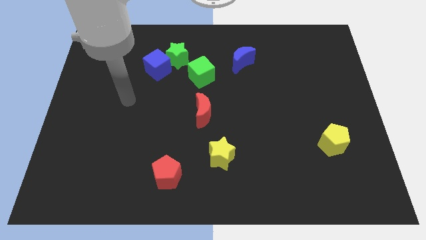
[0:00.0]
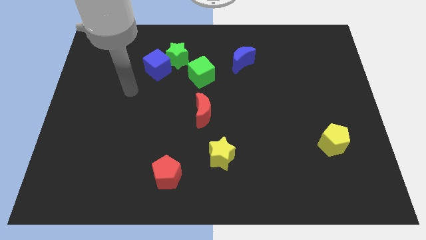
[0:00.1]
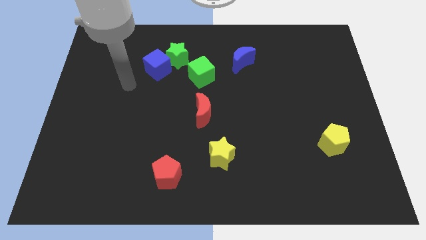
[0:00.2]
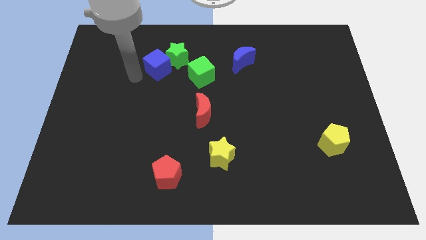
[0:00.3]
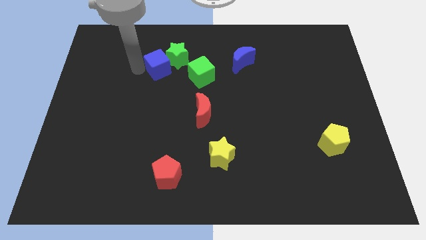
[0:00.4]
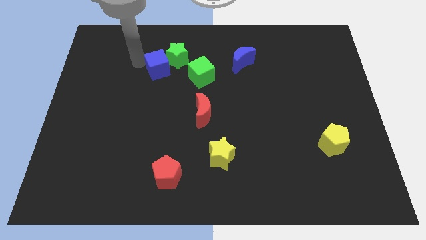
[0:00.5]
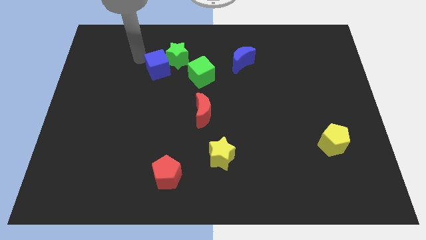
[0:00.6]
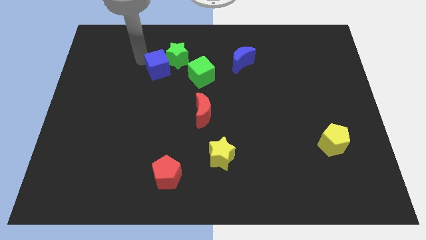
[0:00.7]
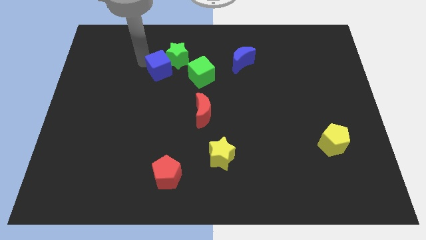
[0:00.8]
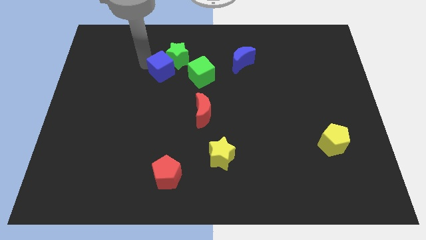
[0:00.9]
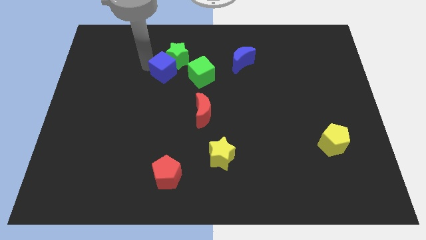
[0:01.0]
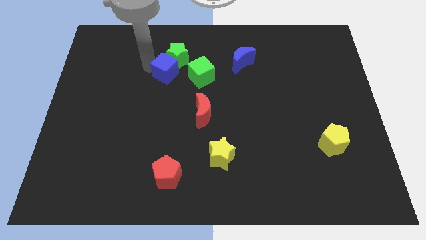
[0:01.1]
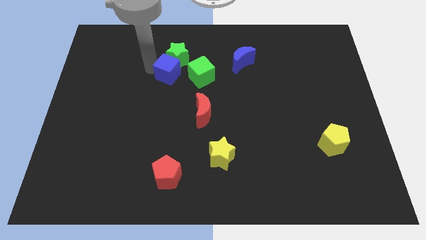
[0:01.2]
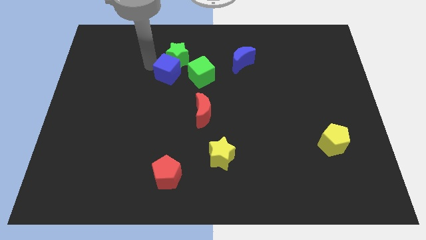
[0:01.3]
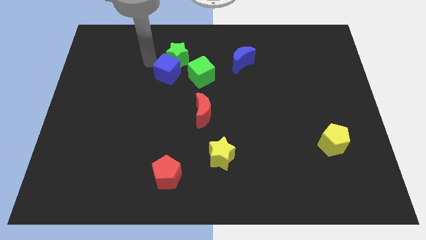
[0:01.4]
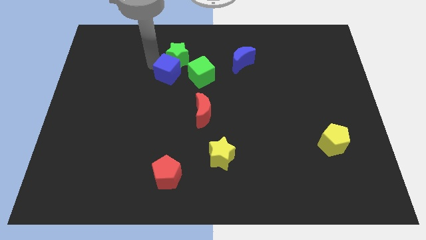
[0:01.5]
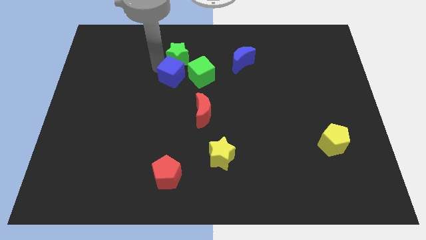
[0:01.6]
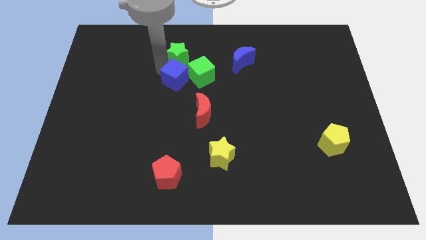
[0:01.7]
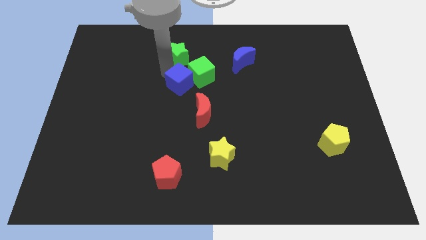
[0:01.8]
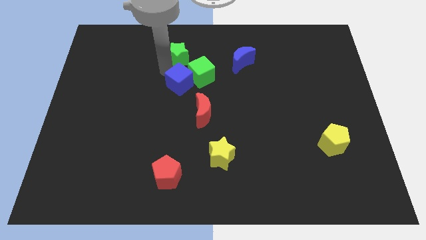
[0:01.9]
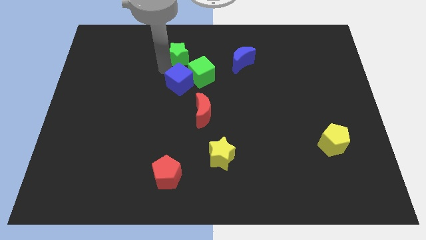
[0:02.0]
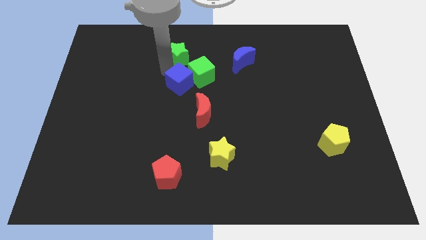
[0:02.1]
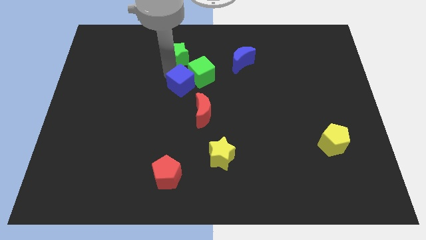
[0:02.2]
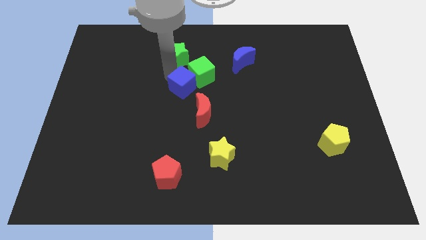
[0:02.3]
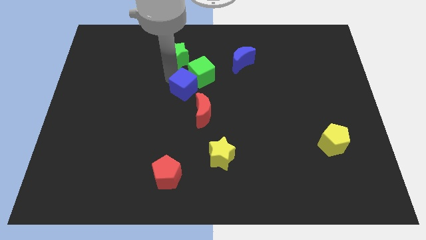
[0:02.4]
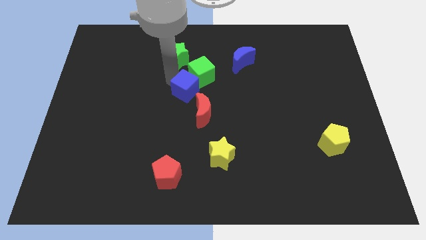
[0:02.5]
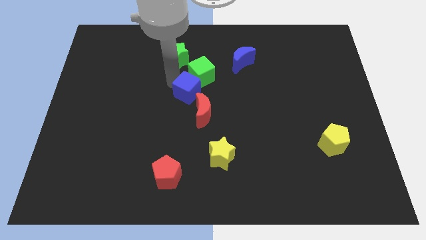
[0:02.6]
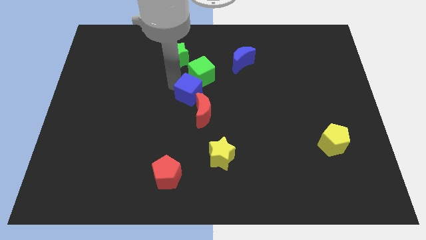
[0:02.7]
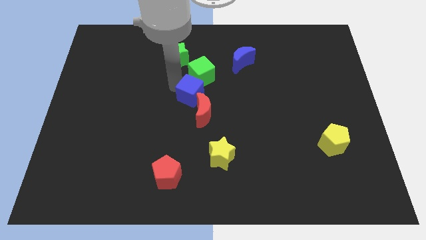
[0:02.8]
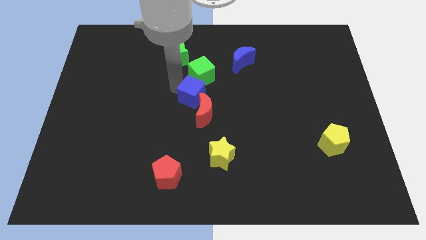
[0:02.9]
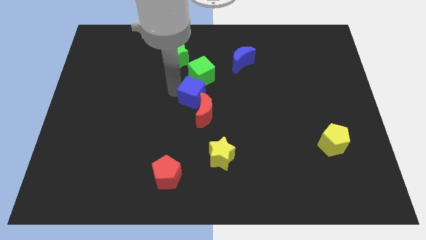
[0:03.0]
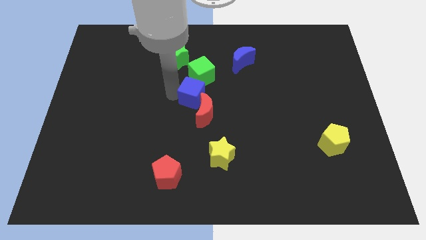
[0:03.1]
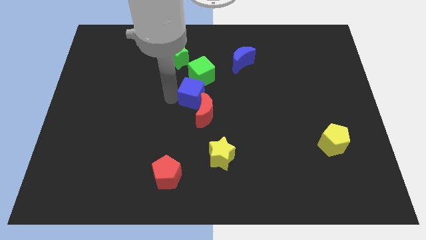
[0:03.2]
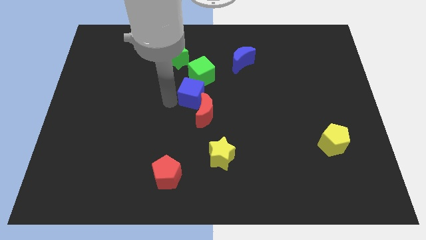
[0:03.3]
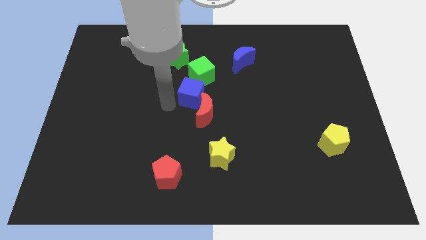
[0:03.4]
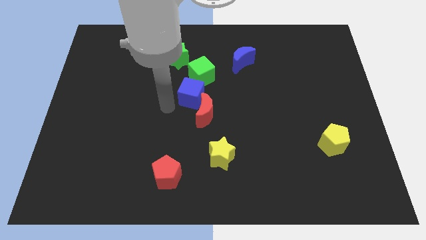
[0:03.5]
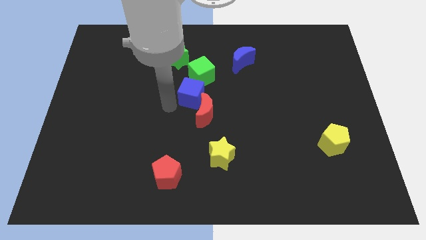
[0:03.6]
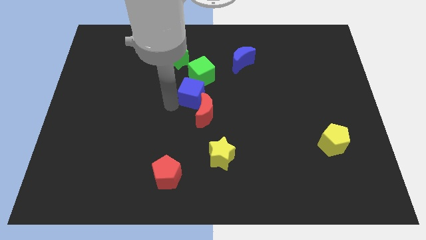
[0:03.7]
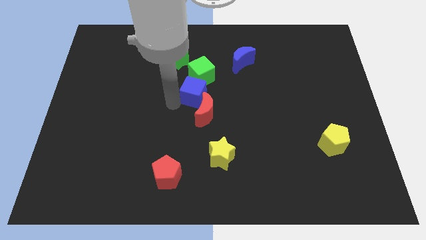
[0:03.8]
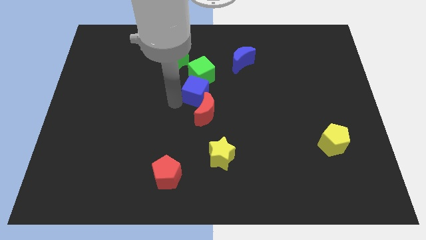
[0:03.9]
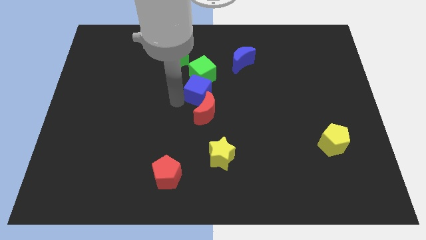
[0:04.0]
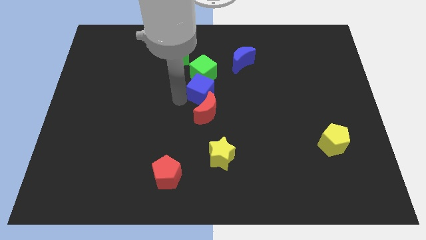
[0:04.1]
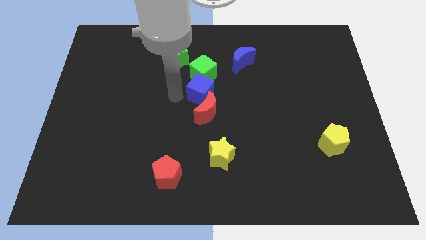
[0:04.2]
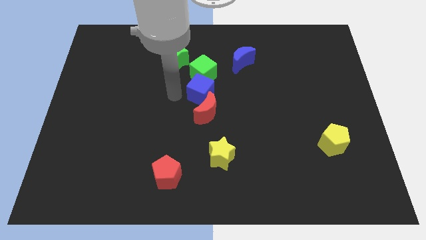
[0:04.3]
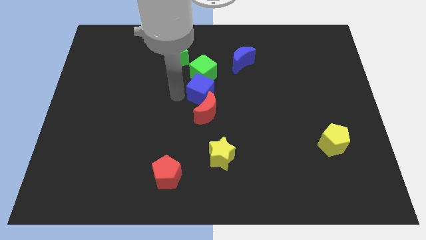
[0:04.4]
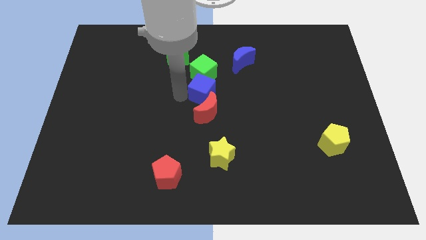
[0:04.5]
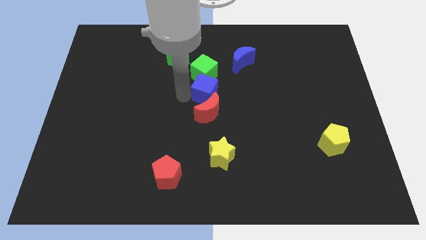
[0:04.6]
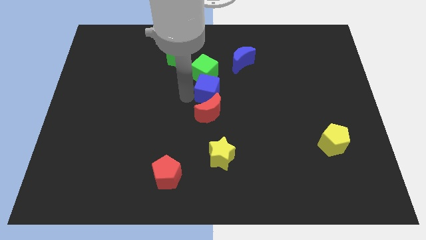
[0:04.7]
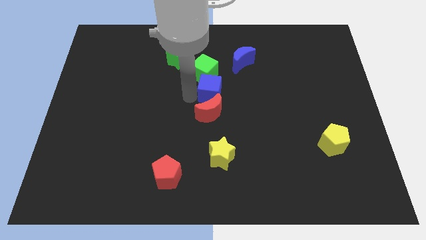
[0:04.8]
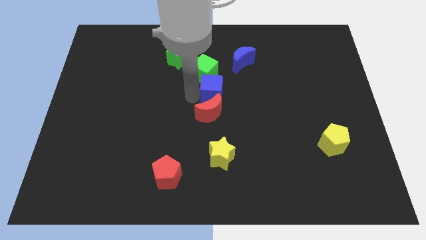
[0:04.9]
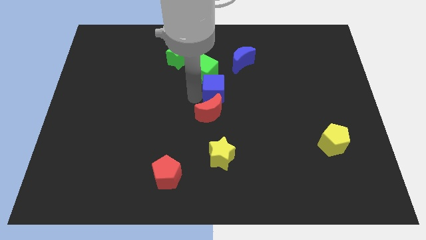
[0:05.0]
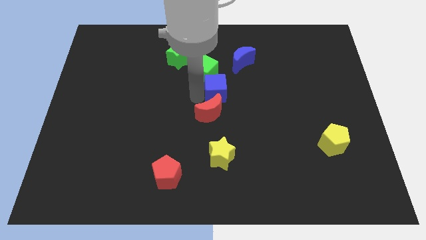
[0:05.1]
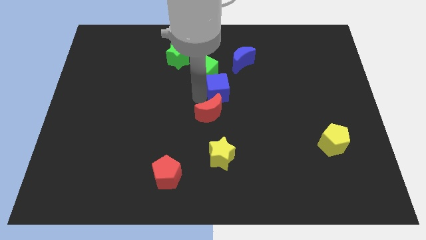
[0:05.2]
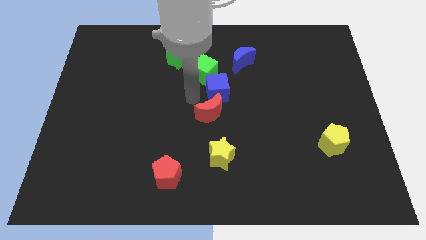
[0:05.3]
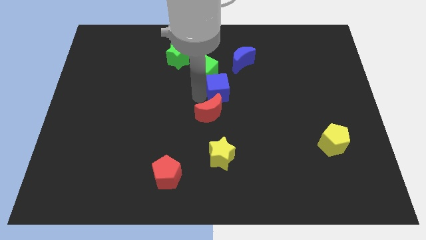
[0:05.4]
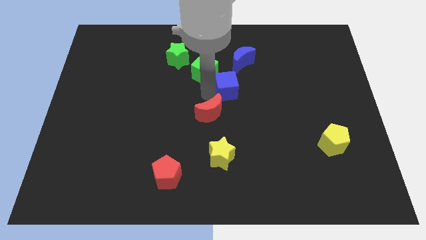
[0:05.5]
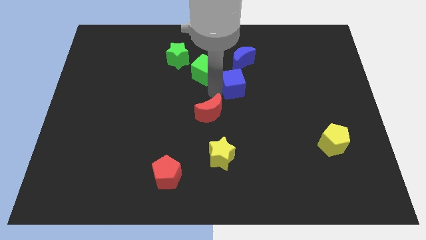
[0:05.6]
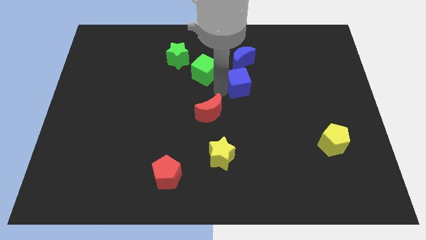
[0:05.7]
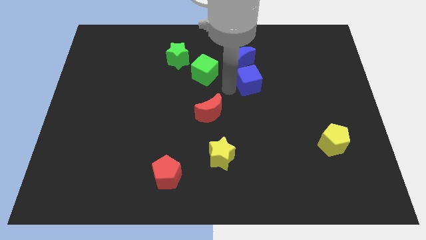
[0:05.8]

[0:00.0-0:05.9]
slide the blue cube to the right

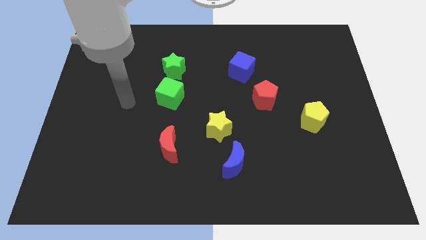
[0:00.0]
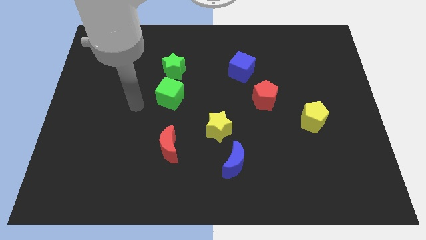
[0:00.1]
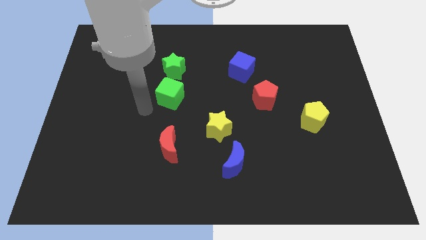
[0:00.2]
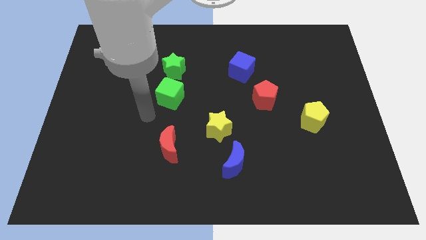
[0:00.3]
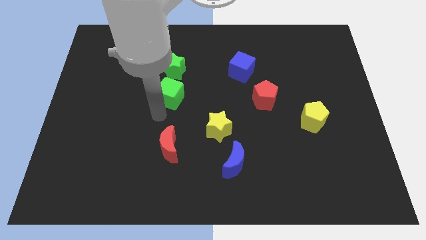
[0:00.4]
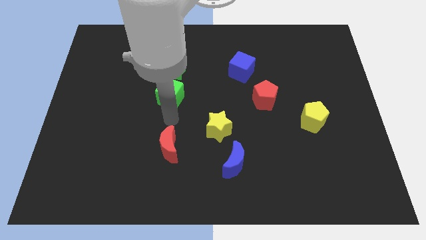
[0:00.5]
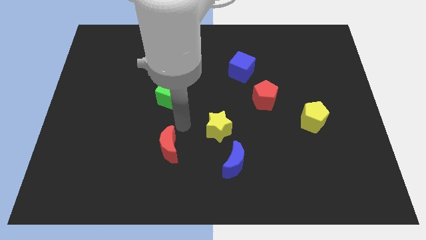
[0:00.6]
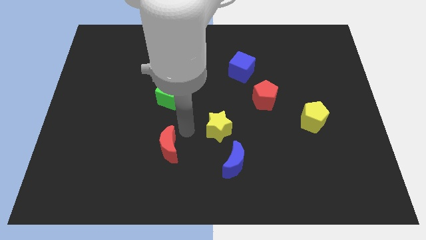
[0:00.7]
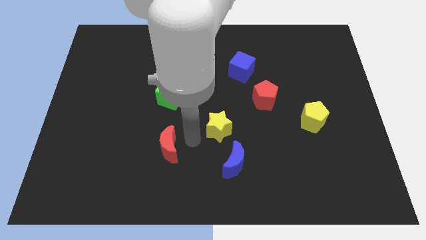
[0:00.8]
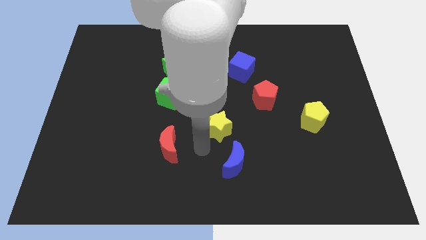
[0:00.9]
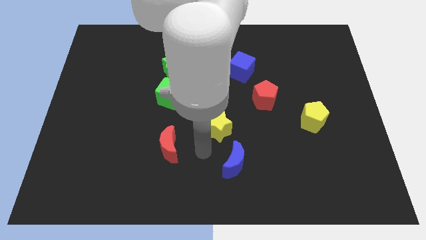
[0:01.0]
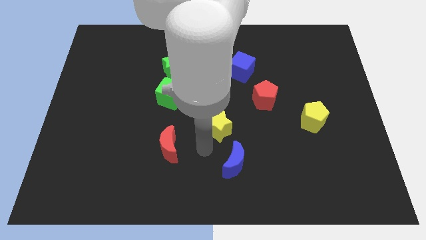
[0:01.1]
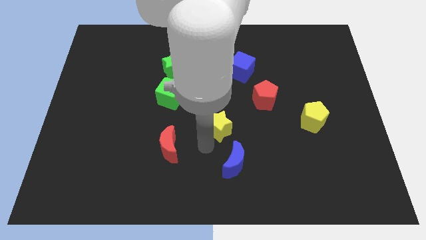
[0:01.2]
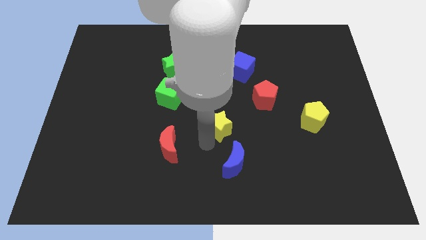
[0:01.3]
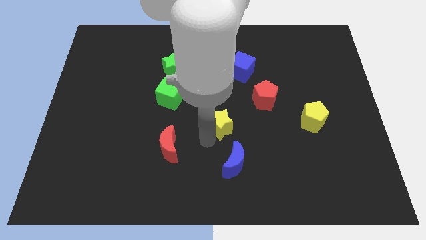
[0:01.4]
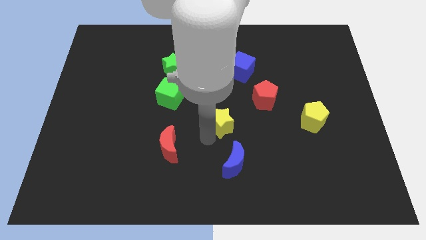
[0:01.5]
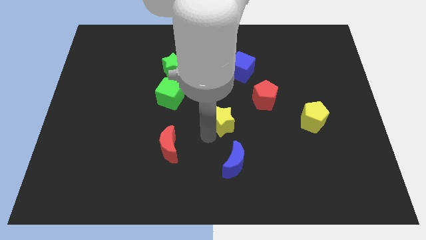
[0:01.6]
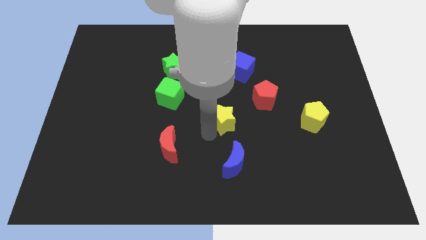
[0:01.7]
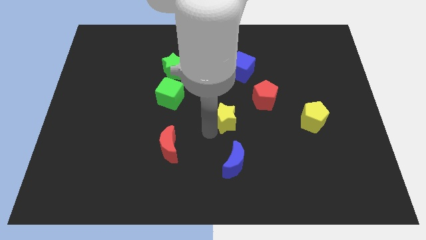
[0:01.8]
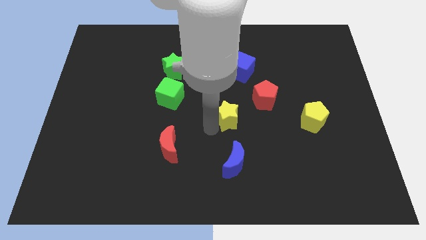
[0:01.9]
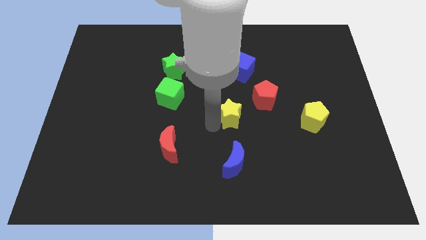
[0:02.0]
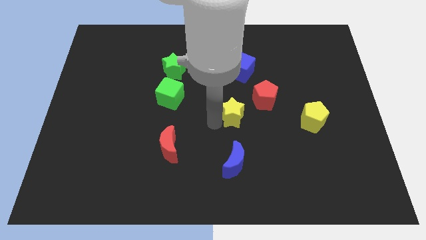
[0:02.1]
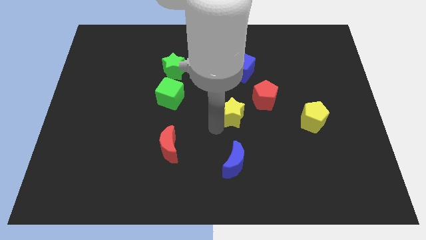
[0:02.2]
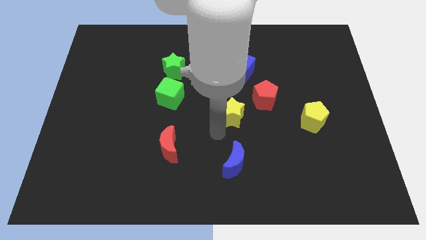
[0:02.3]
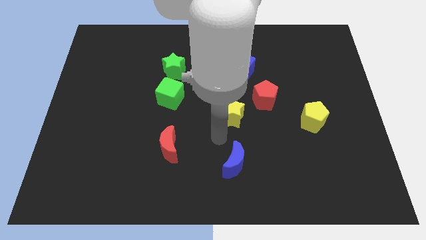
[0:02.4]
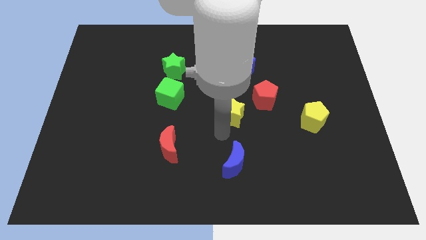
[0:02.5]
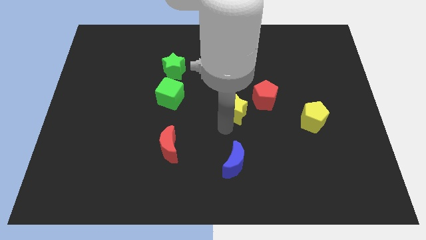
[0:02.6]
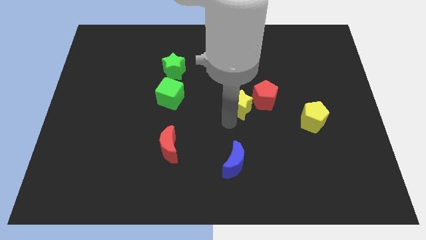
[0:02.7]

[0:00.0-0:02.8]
slightly push the yellow star up and to the right
